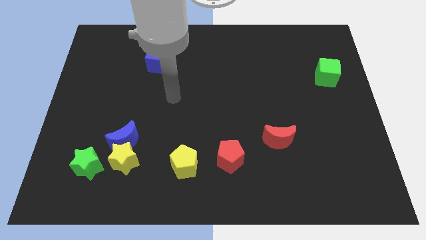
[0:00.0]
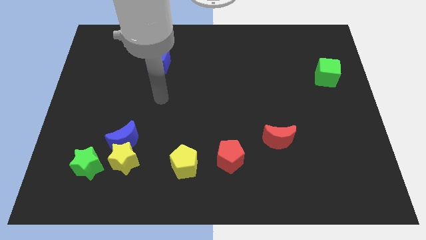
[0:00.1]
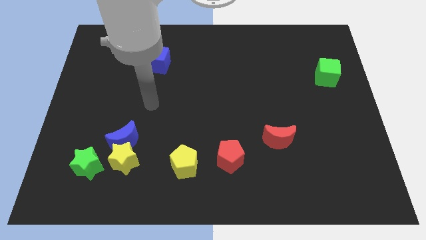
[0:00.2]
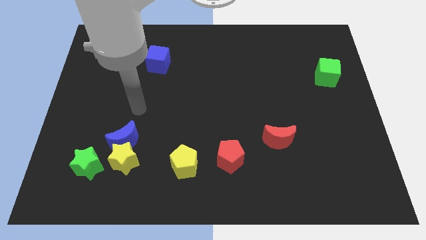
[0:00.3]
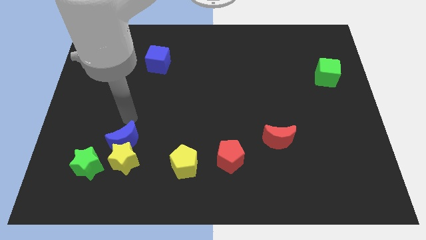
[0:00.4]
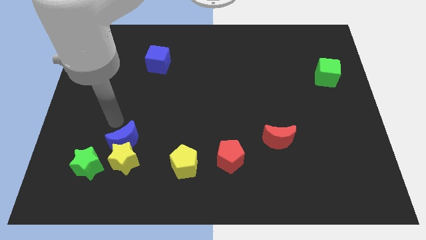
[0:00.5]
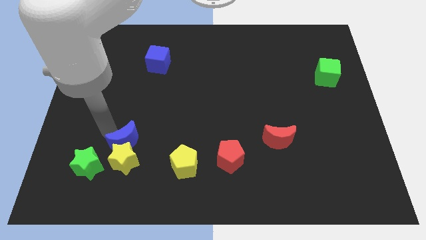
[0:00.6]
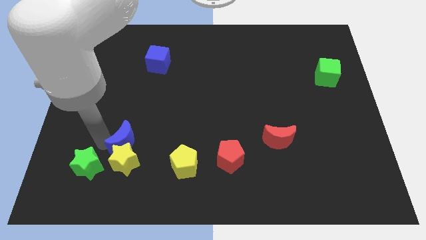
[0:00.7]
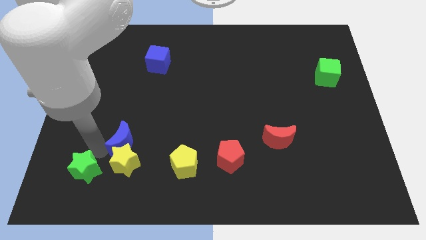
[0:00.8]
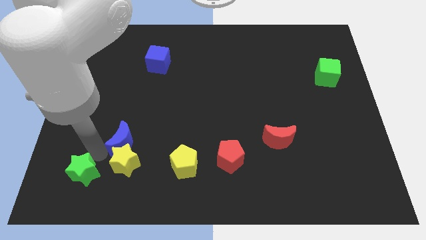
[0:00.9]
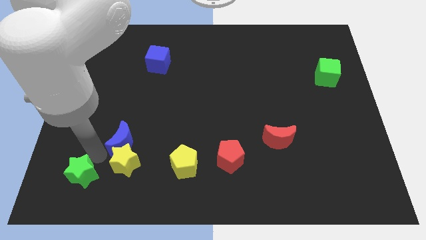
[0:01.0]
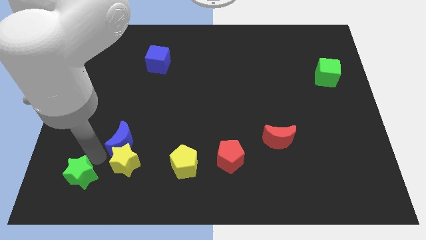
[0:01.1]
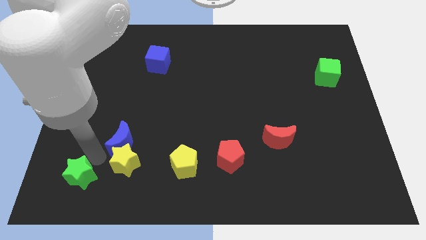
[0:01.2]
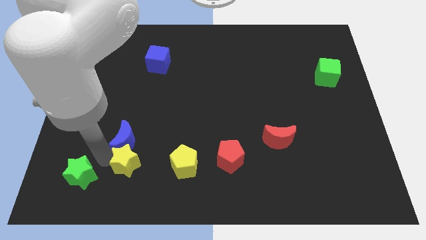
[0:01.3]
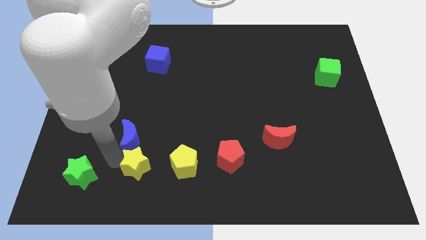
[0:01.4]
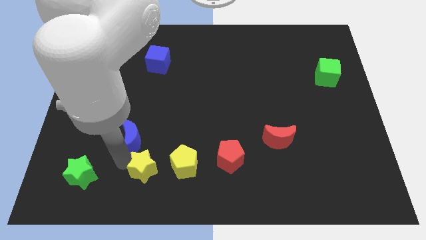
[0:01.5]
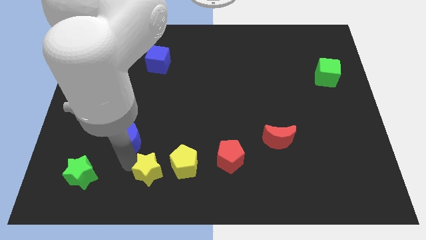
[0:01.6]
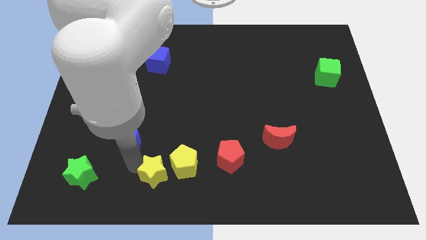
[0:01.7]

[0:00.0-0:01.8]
move the yellow star away from the blue moon and green star

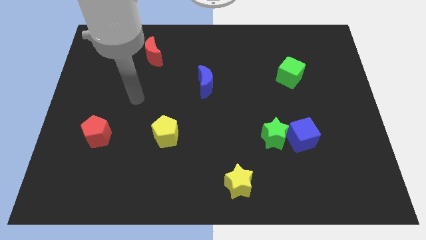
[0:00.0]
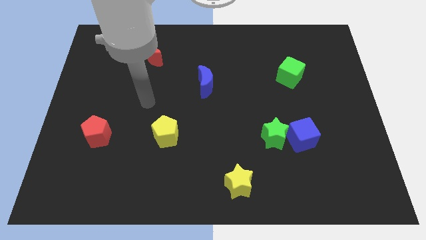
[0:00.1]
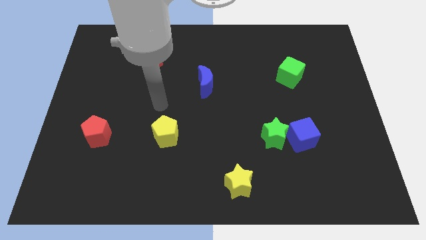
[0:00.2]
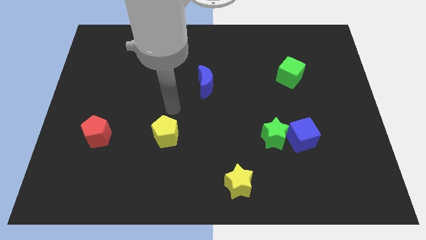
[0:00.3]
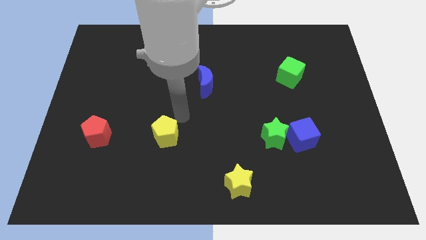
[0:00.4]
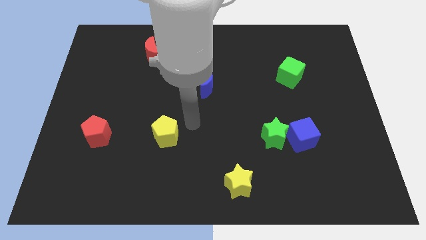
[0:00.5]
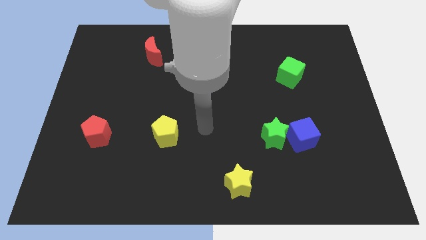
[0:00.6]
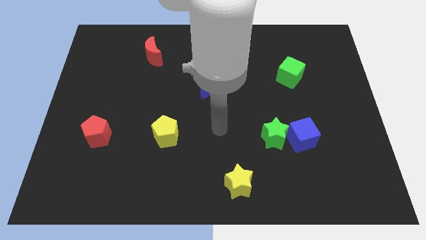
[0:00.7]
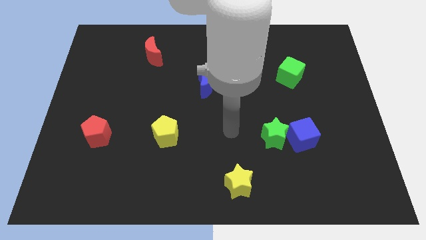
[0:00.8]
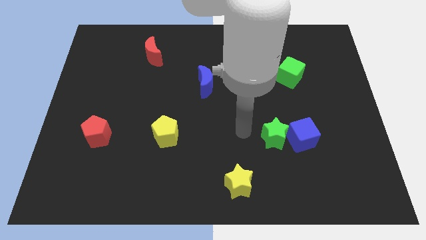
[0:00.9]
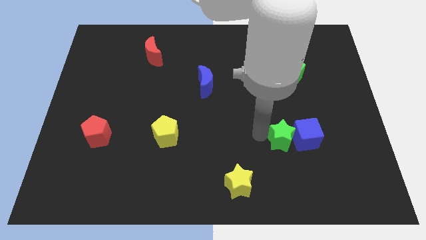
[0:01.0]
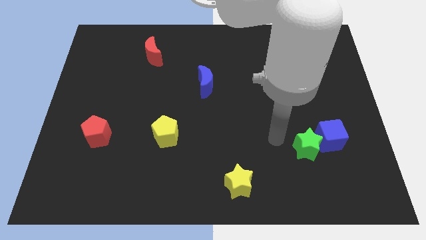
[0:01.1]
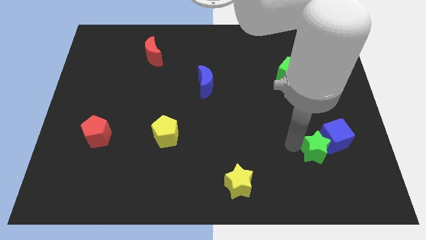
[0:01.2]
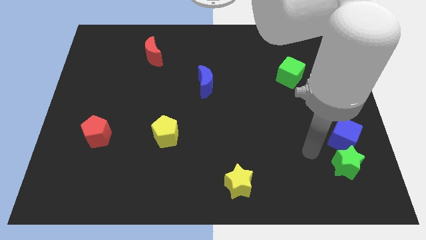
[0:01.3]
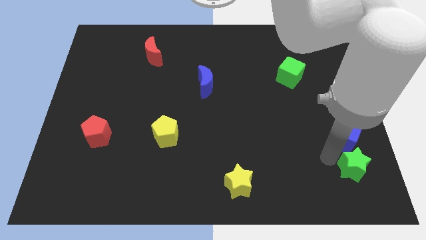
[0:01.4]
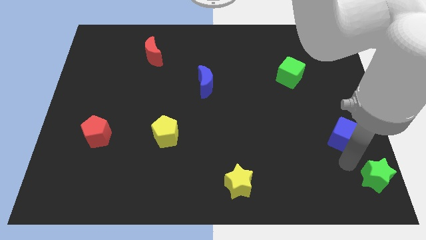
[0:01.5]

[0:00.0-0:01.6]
pull the blue cube apart from the green star

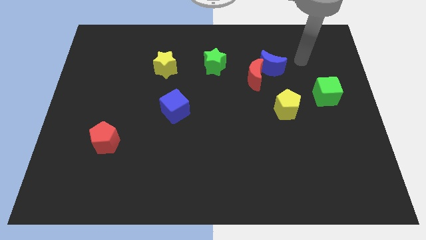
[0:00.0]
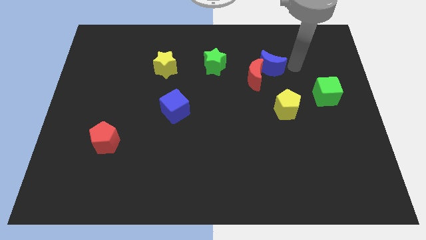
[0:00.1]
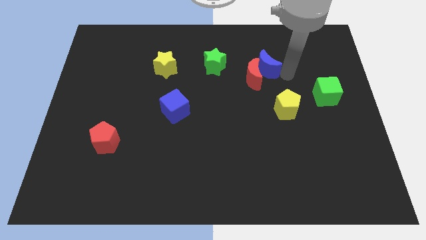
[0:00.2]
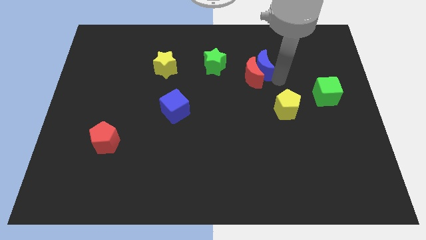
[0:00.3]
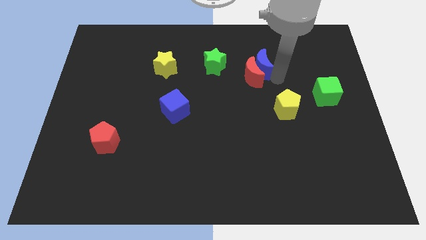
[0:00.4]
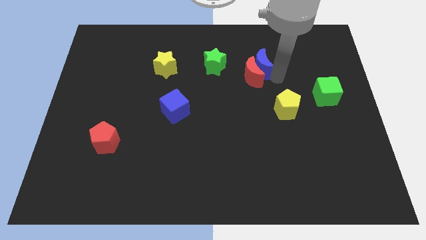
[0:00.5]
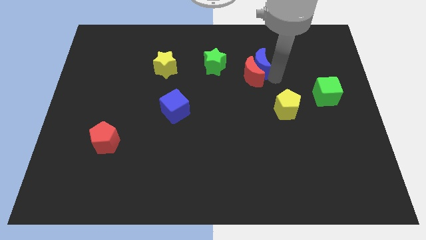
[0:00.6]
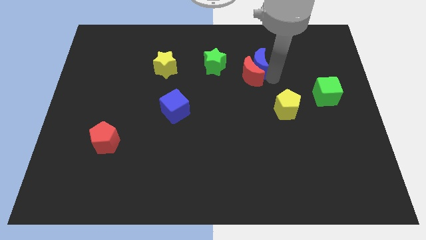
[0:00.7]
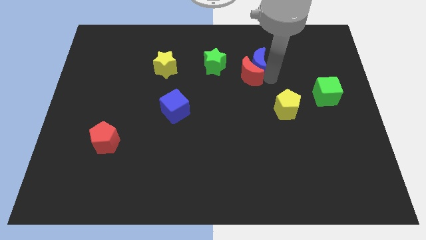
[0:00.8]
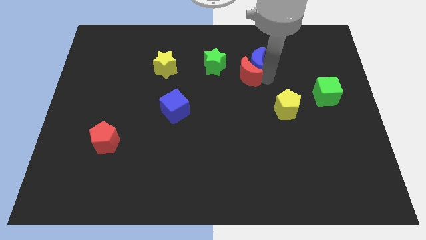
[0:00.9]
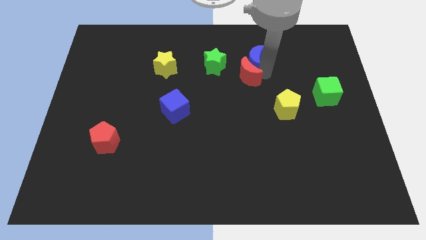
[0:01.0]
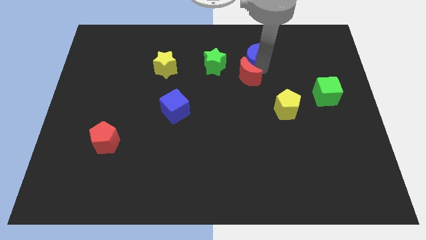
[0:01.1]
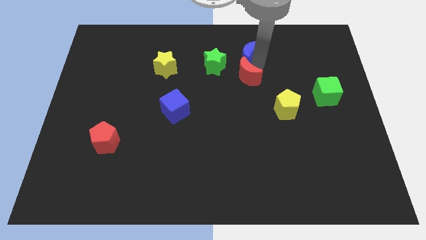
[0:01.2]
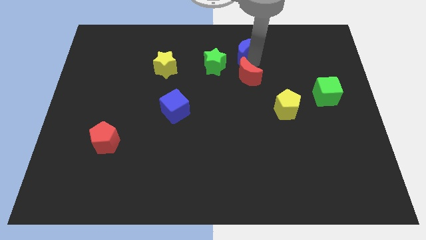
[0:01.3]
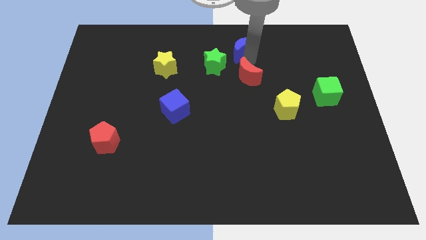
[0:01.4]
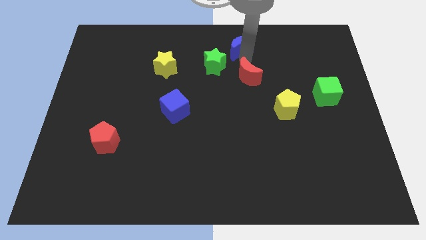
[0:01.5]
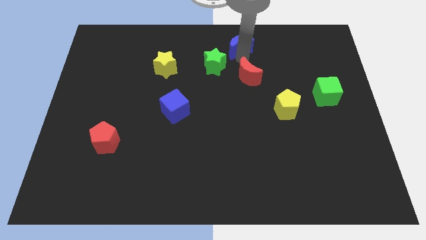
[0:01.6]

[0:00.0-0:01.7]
separate the red moon from the blue moon

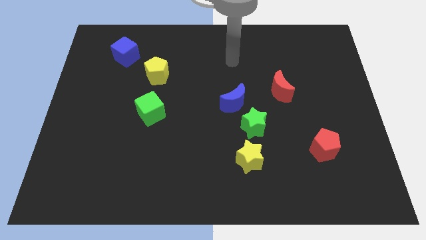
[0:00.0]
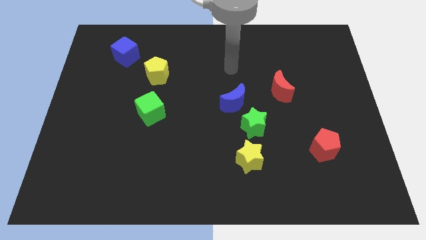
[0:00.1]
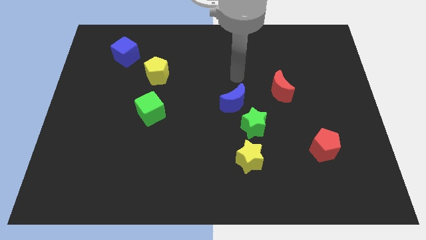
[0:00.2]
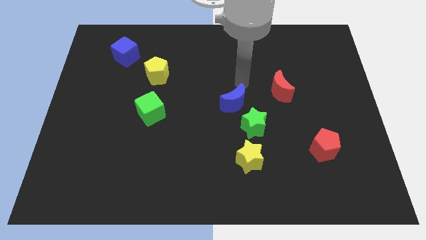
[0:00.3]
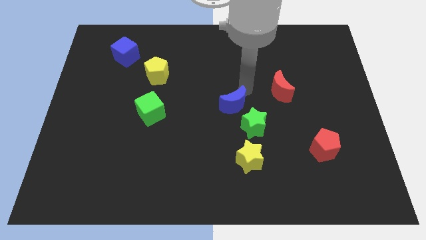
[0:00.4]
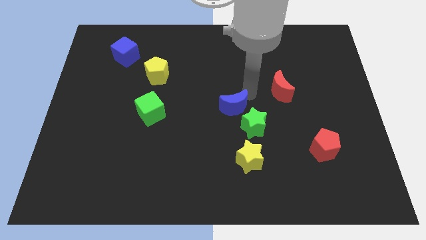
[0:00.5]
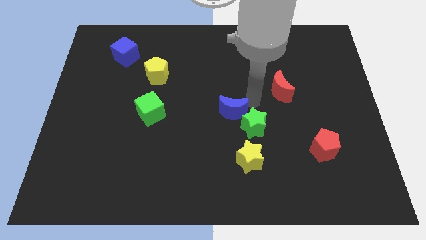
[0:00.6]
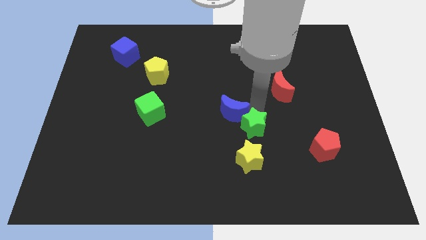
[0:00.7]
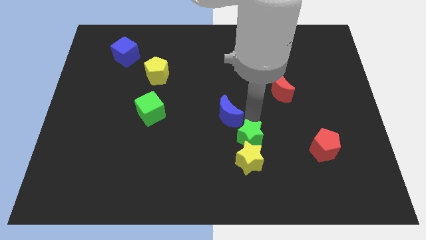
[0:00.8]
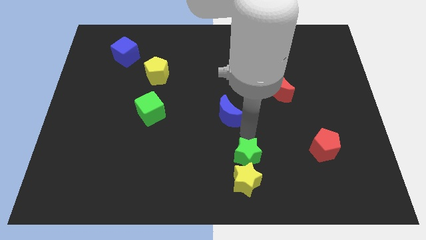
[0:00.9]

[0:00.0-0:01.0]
pull the blue moon apart from the green star

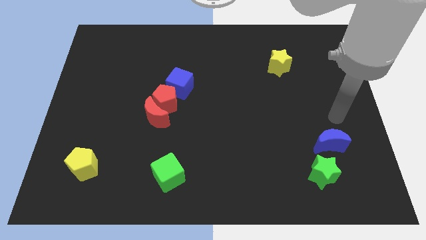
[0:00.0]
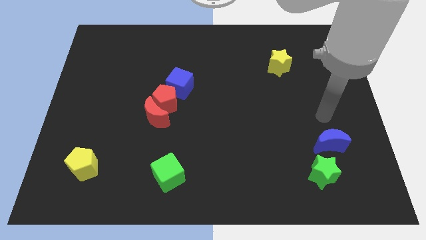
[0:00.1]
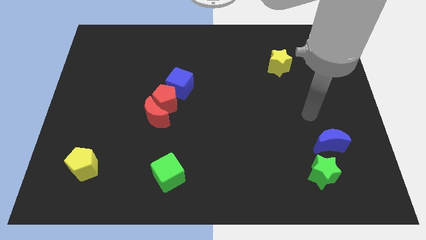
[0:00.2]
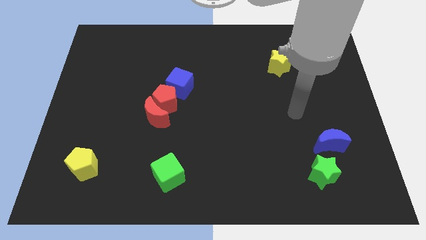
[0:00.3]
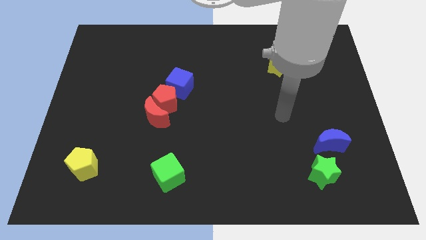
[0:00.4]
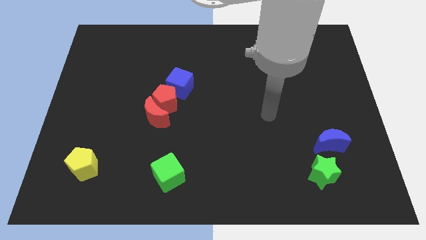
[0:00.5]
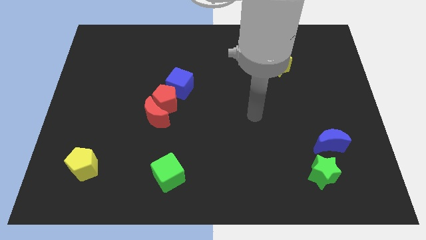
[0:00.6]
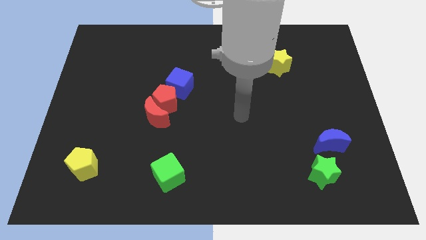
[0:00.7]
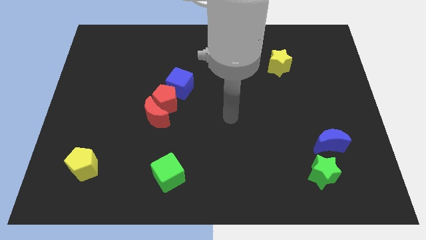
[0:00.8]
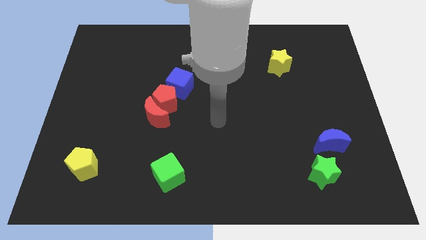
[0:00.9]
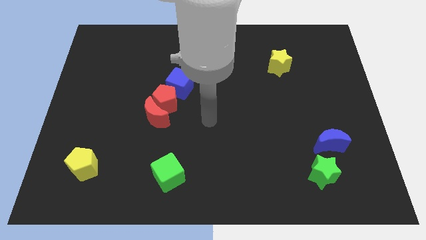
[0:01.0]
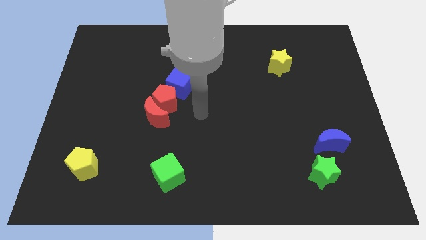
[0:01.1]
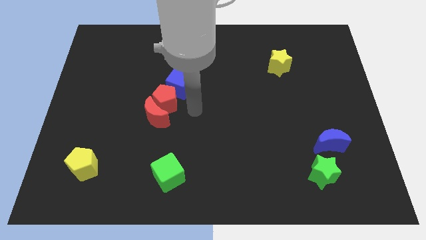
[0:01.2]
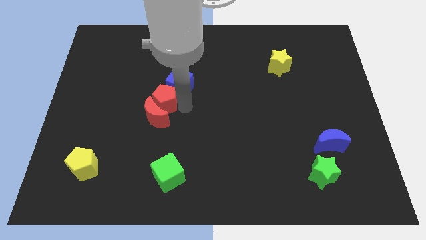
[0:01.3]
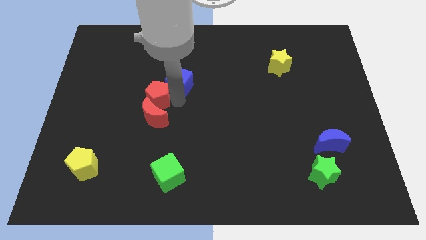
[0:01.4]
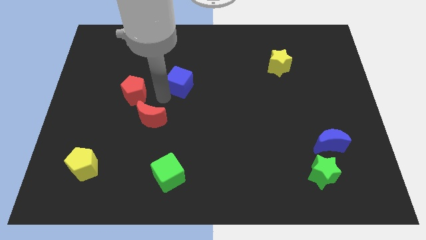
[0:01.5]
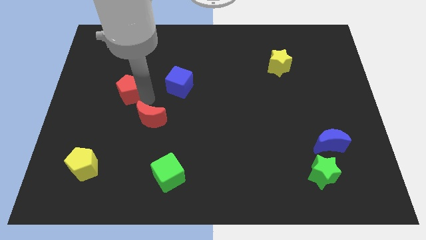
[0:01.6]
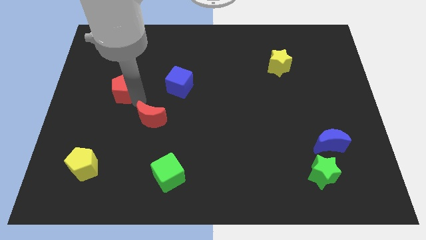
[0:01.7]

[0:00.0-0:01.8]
pull the red moon apart from the red pentagon

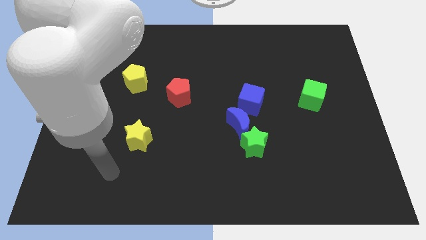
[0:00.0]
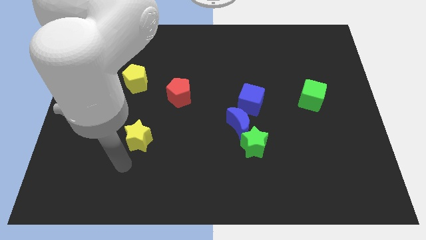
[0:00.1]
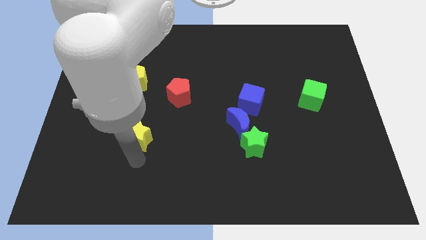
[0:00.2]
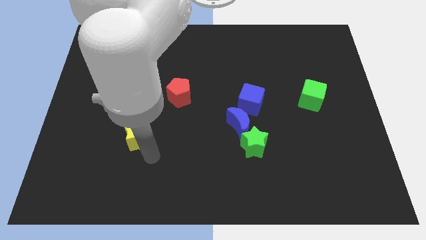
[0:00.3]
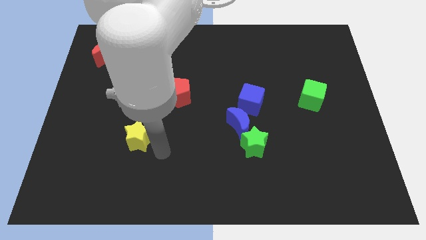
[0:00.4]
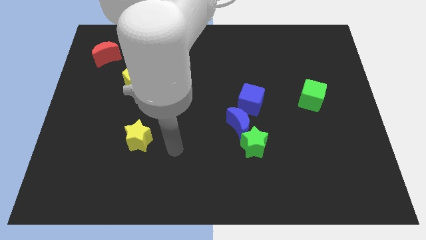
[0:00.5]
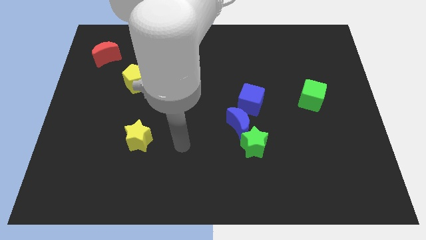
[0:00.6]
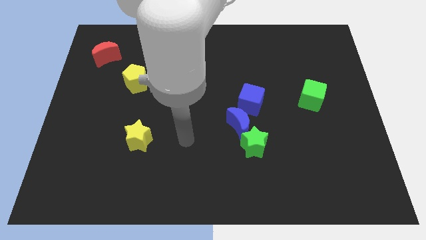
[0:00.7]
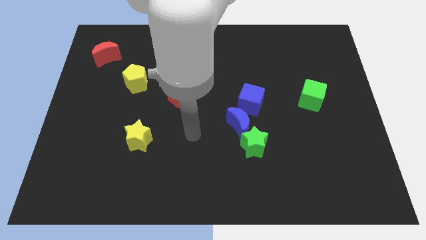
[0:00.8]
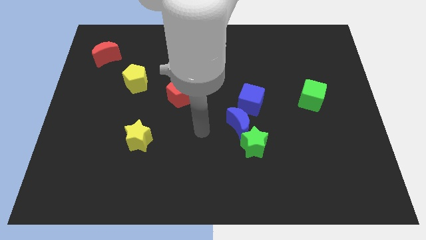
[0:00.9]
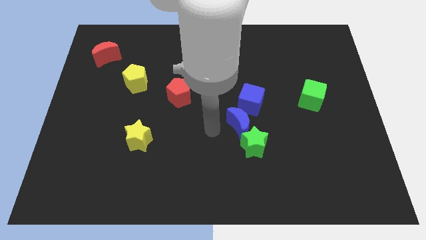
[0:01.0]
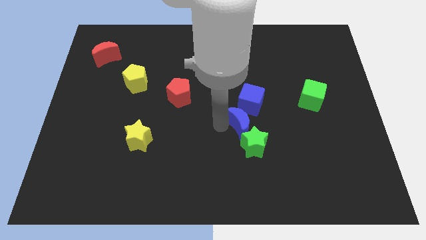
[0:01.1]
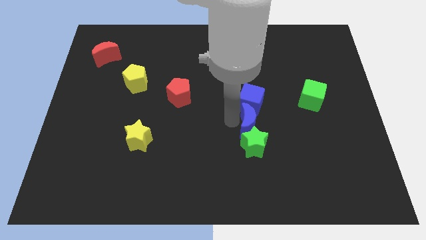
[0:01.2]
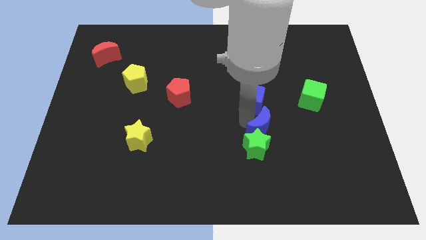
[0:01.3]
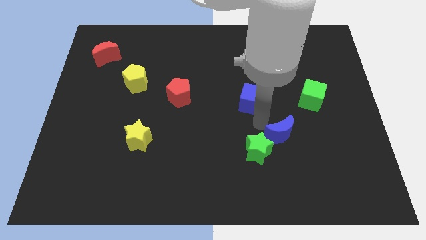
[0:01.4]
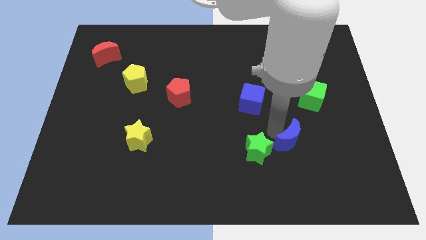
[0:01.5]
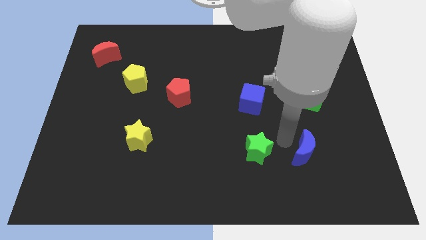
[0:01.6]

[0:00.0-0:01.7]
separate the green star from the blue moon
